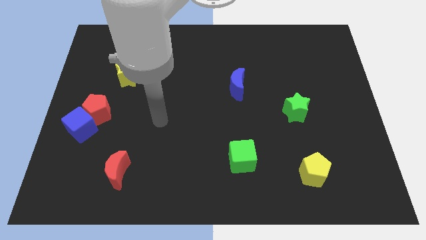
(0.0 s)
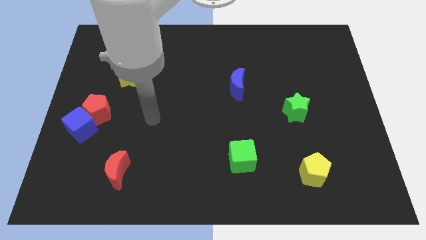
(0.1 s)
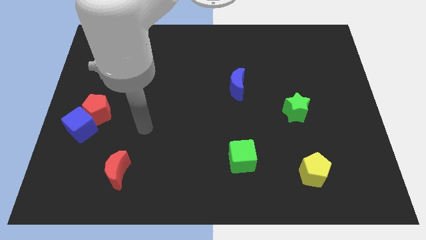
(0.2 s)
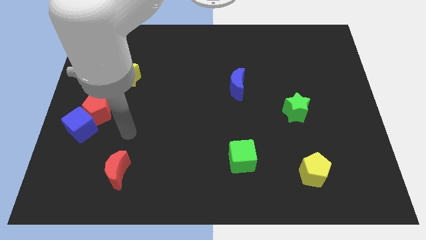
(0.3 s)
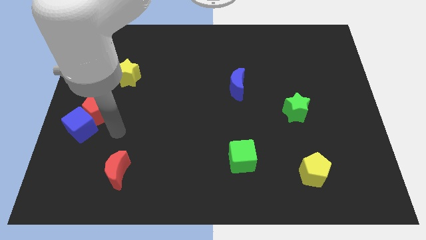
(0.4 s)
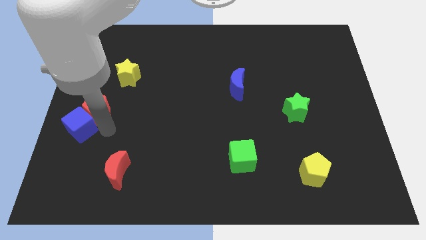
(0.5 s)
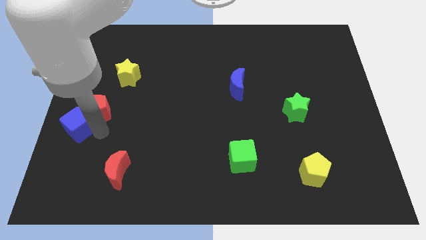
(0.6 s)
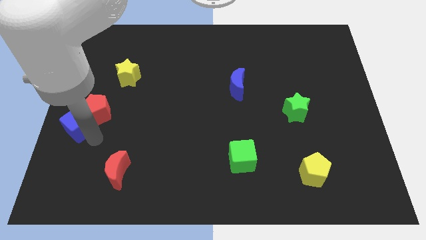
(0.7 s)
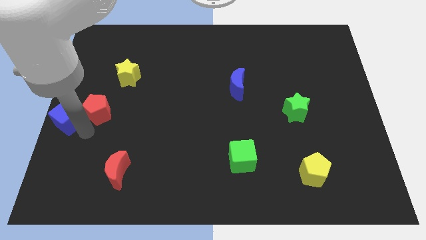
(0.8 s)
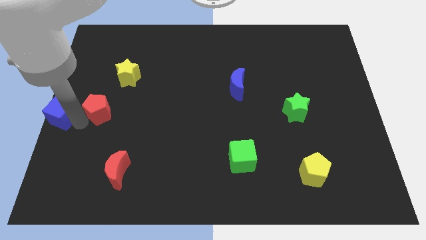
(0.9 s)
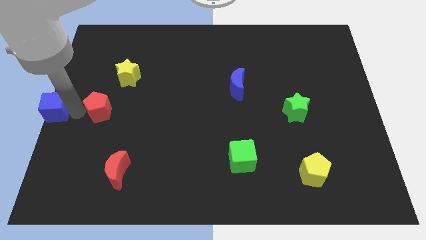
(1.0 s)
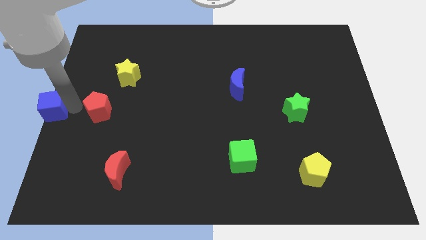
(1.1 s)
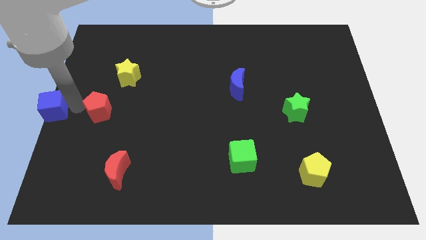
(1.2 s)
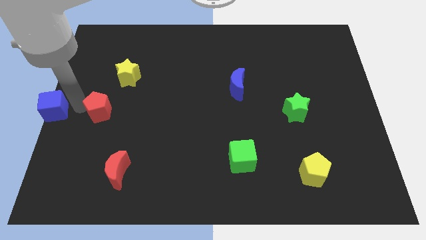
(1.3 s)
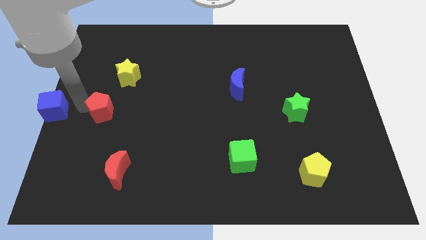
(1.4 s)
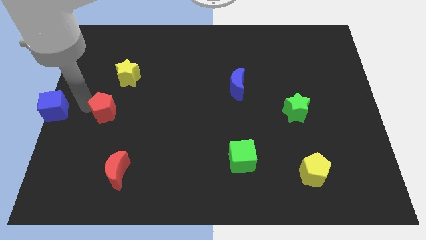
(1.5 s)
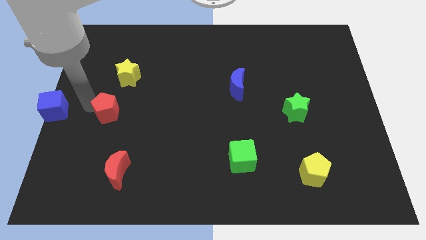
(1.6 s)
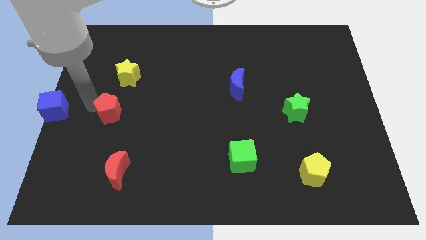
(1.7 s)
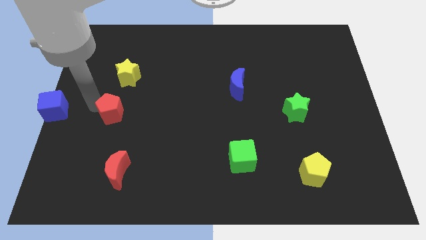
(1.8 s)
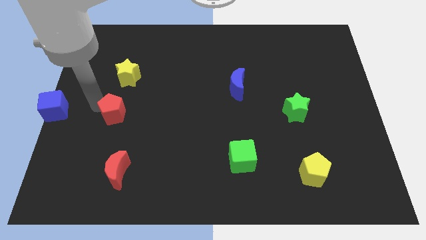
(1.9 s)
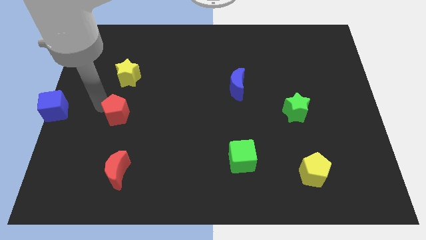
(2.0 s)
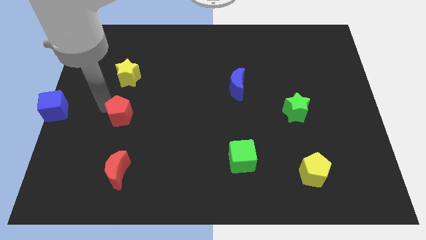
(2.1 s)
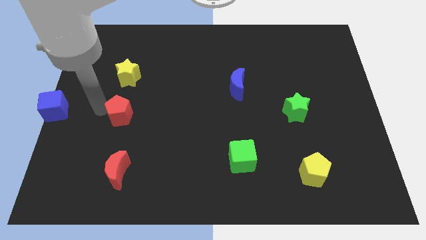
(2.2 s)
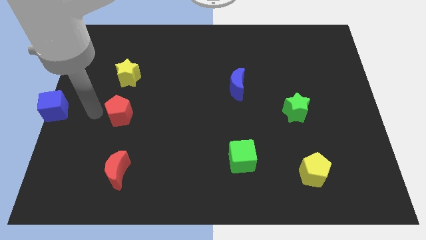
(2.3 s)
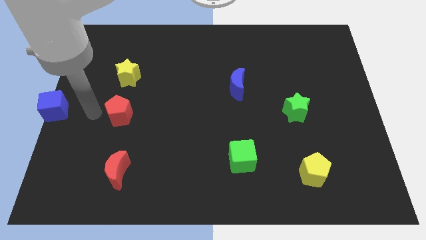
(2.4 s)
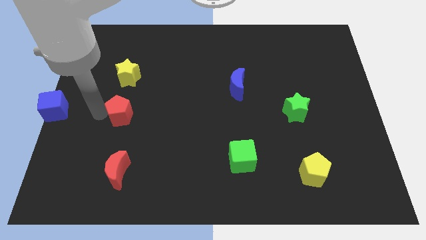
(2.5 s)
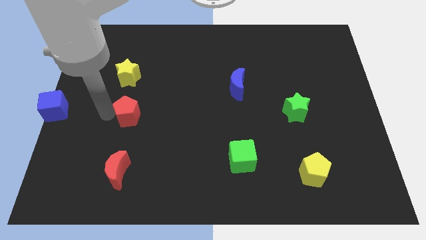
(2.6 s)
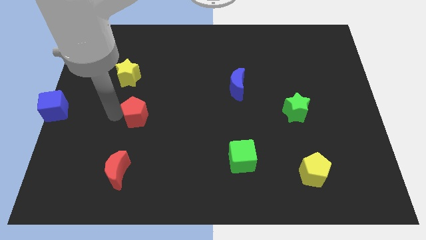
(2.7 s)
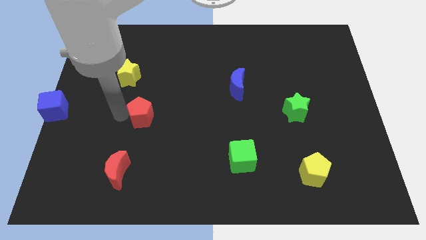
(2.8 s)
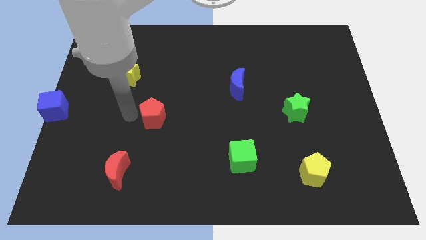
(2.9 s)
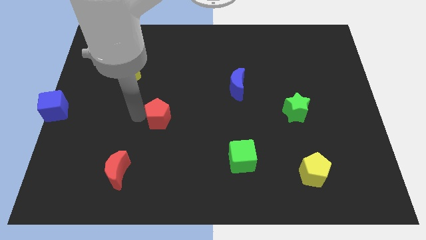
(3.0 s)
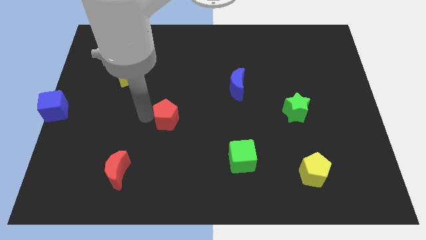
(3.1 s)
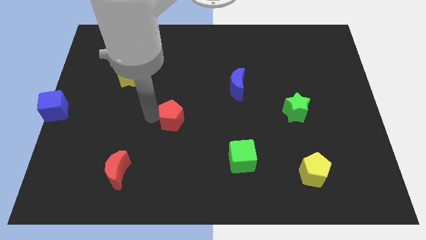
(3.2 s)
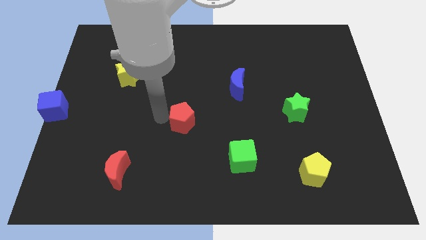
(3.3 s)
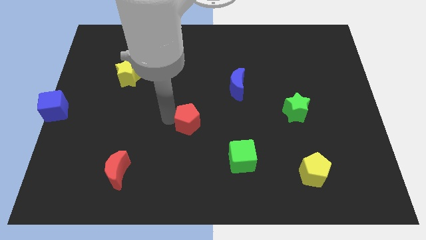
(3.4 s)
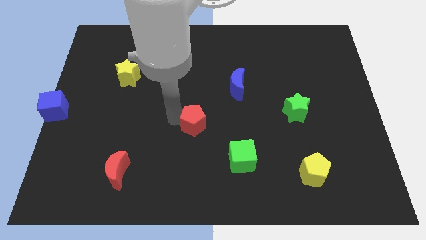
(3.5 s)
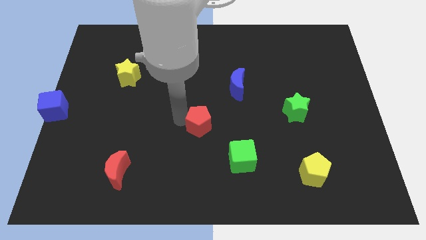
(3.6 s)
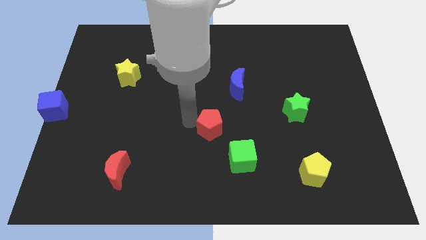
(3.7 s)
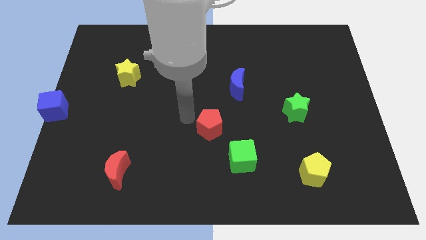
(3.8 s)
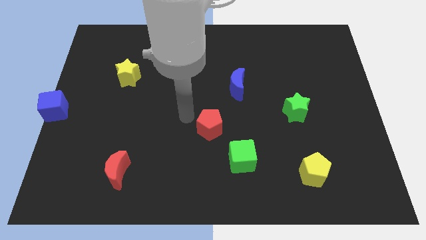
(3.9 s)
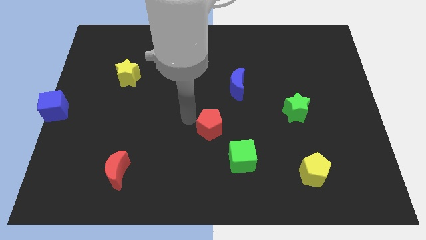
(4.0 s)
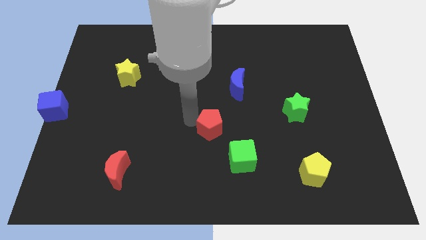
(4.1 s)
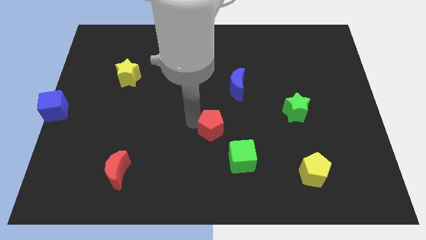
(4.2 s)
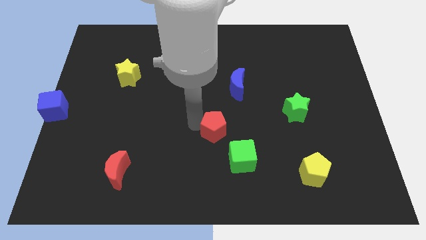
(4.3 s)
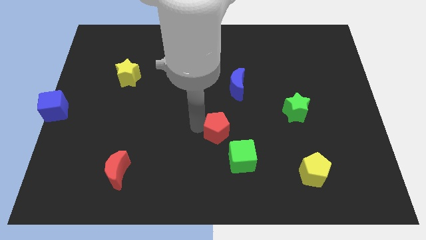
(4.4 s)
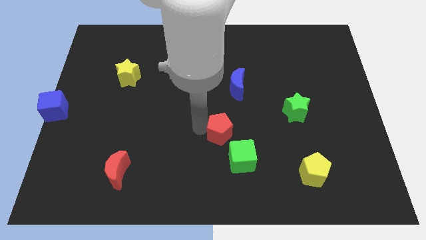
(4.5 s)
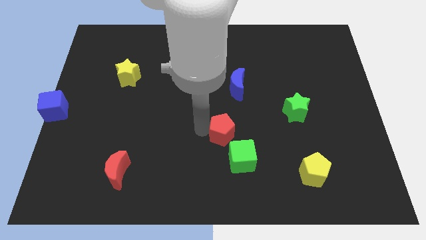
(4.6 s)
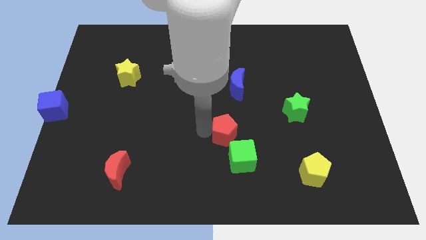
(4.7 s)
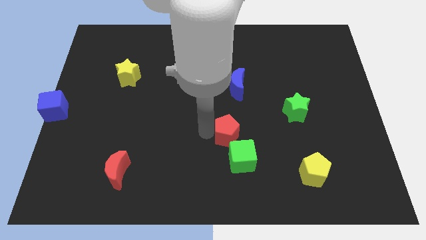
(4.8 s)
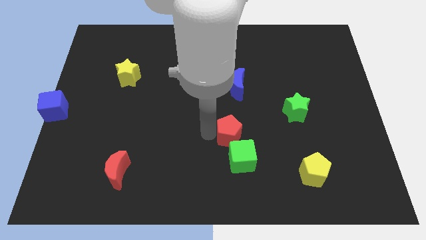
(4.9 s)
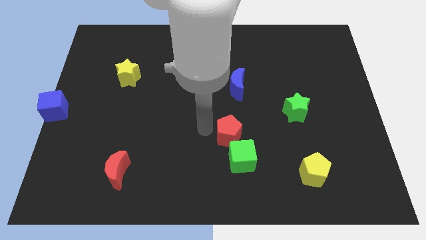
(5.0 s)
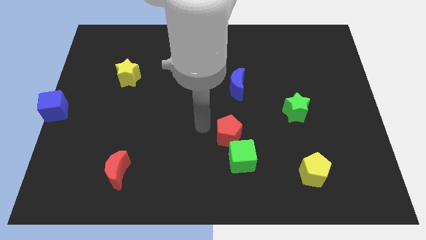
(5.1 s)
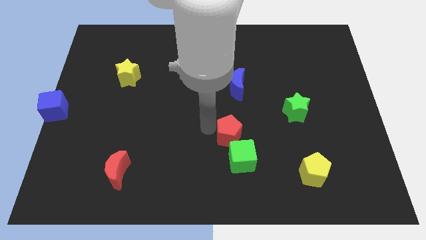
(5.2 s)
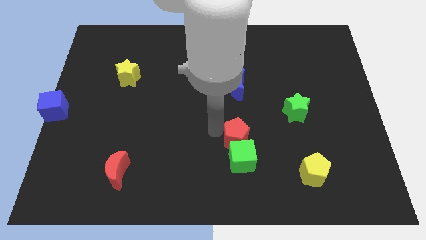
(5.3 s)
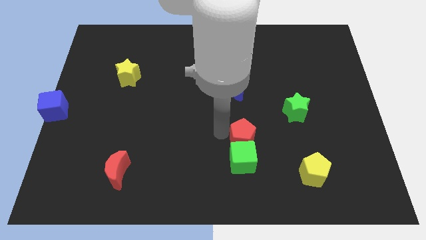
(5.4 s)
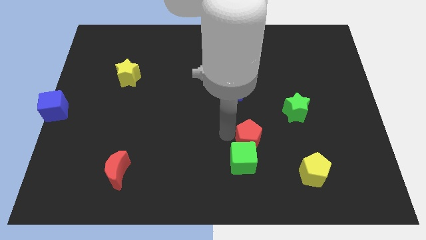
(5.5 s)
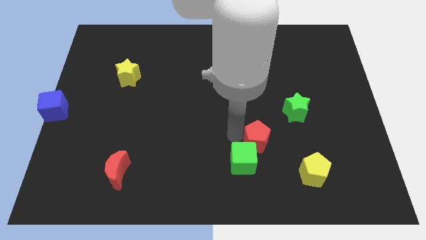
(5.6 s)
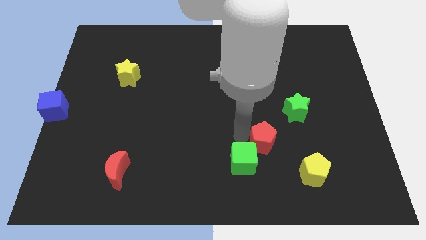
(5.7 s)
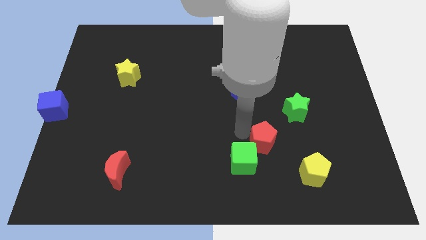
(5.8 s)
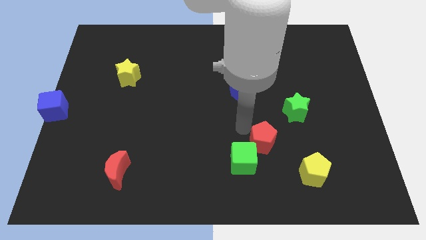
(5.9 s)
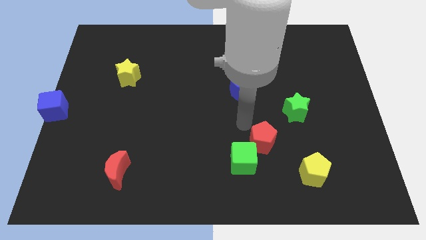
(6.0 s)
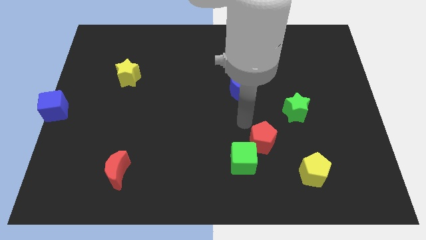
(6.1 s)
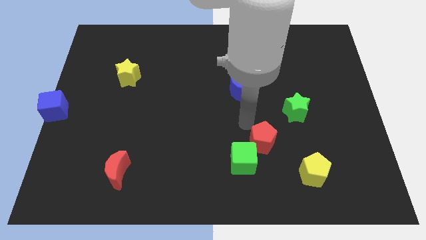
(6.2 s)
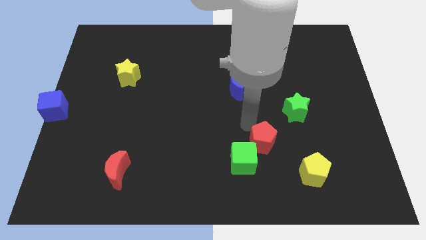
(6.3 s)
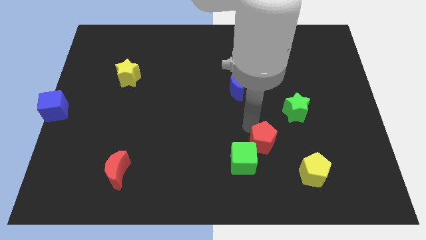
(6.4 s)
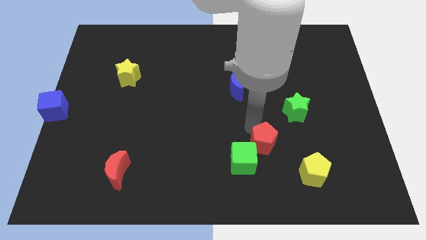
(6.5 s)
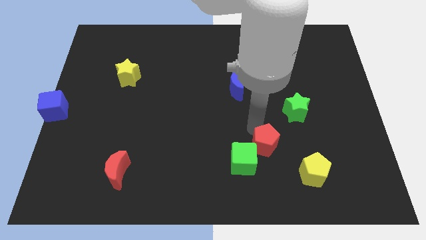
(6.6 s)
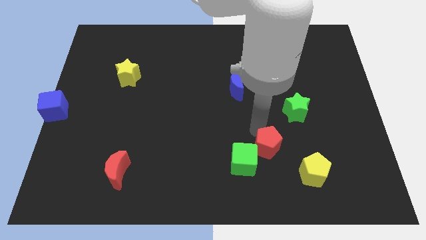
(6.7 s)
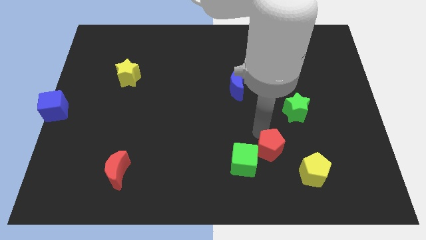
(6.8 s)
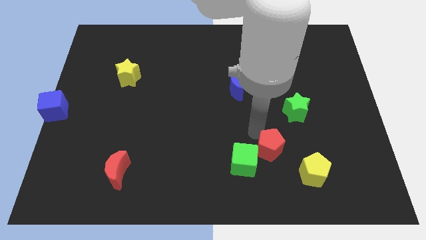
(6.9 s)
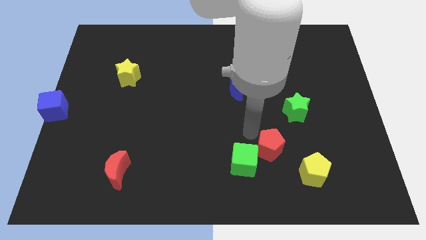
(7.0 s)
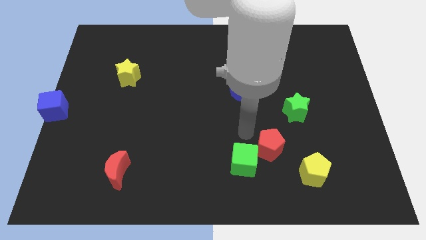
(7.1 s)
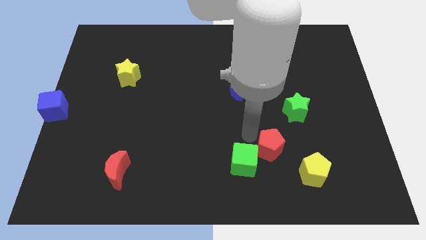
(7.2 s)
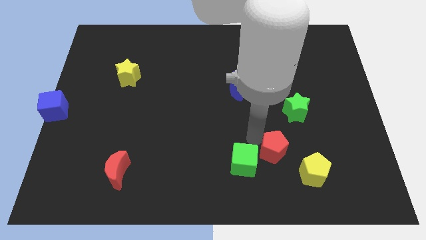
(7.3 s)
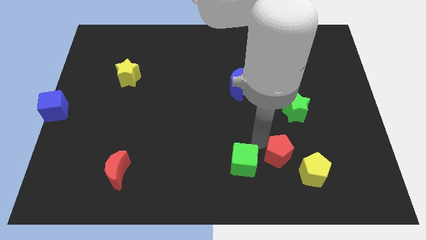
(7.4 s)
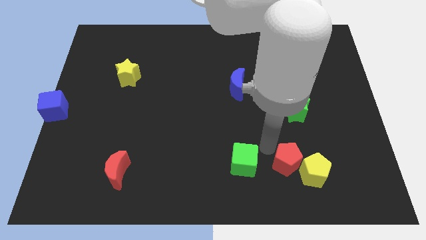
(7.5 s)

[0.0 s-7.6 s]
move the red pentagon next to the yellow pentagon
